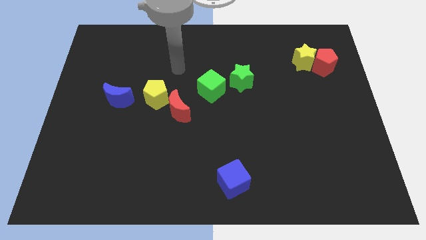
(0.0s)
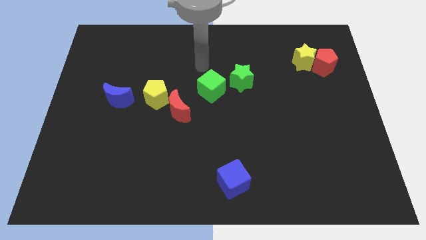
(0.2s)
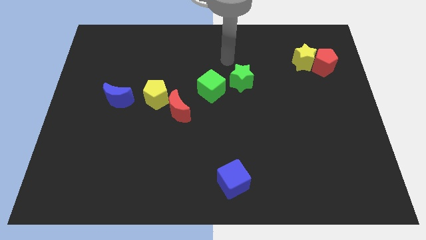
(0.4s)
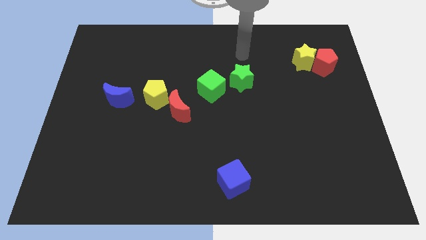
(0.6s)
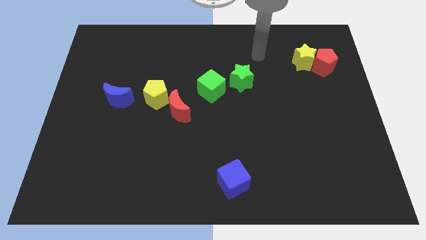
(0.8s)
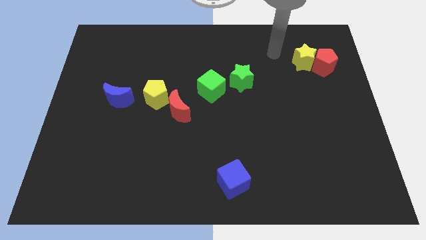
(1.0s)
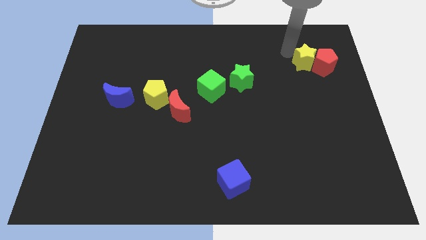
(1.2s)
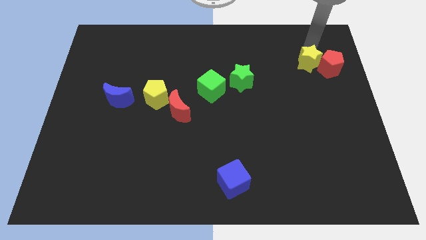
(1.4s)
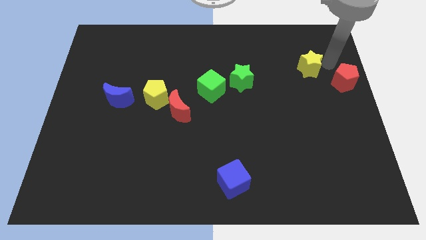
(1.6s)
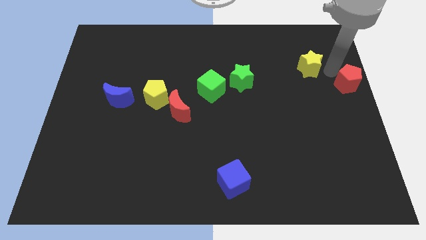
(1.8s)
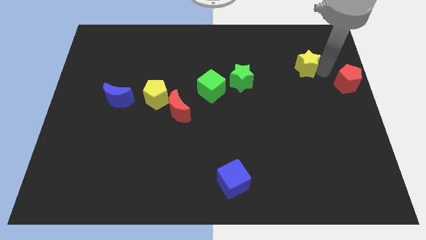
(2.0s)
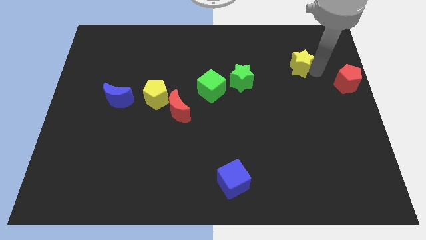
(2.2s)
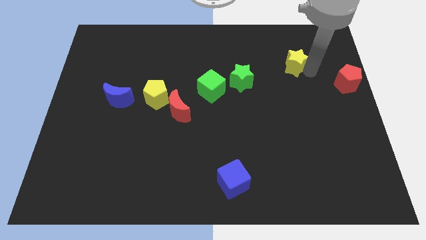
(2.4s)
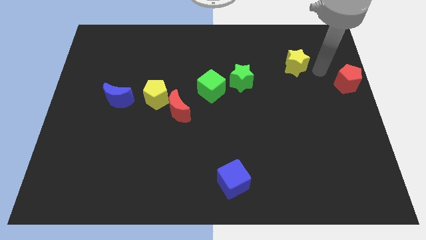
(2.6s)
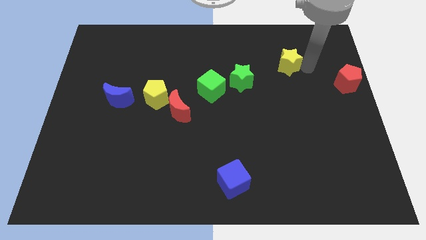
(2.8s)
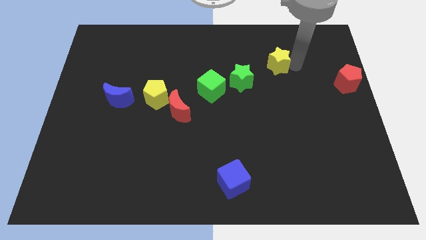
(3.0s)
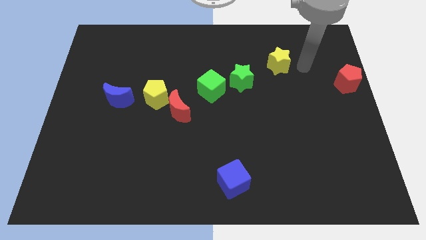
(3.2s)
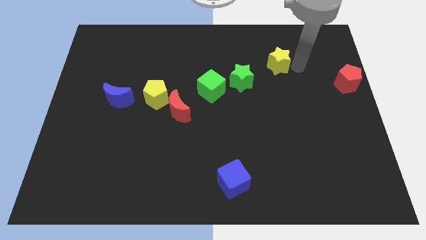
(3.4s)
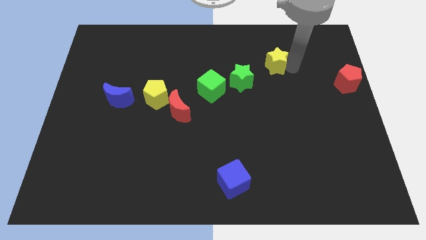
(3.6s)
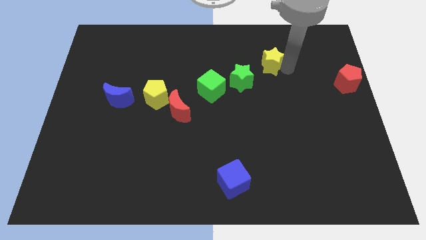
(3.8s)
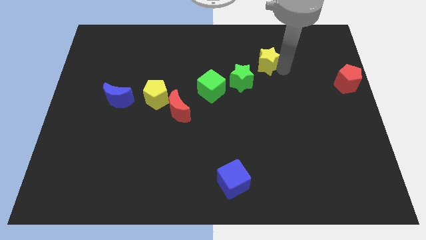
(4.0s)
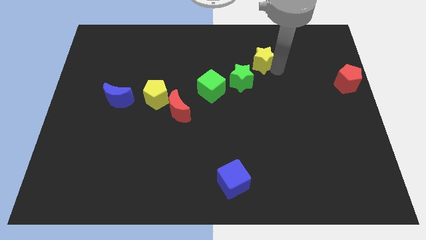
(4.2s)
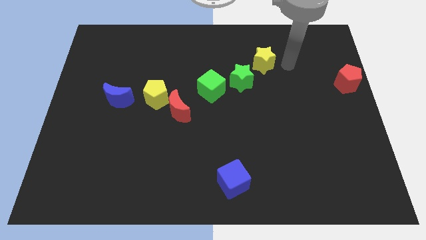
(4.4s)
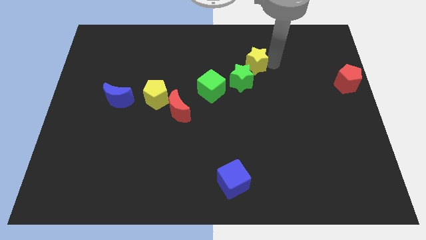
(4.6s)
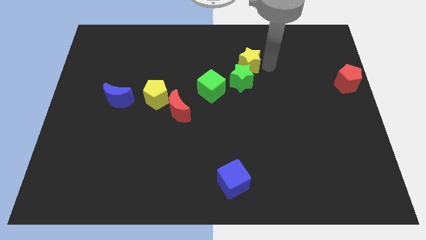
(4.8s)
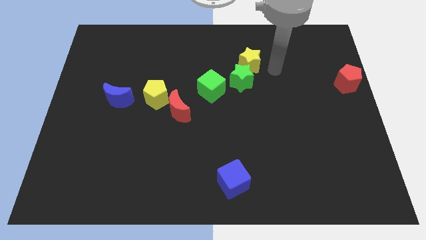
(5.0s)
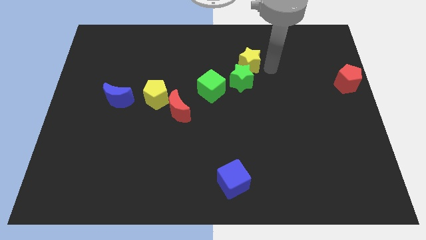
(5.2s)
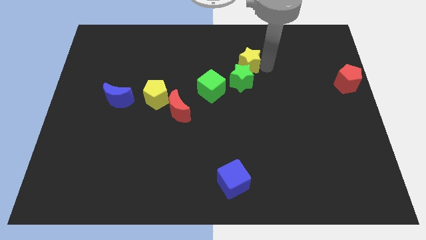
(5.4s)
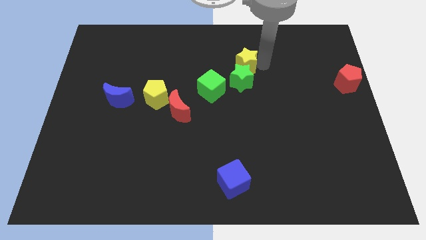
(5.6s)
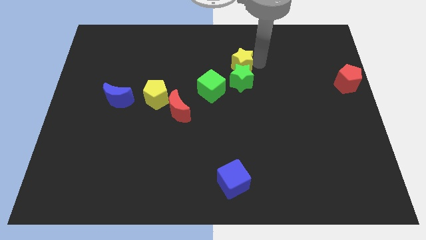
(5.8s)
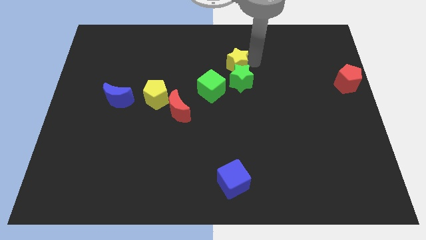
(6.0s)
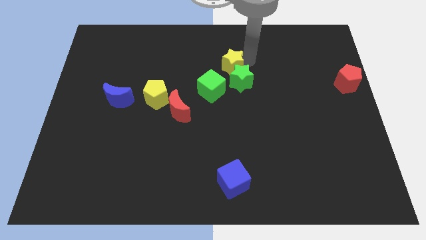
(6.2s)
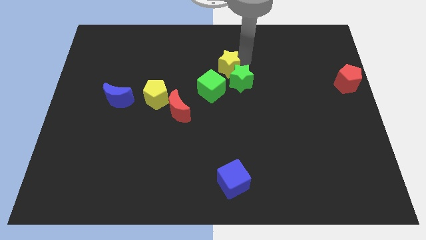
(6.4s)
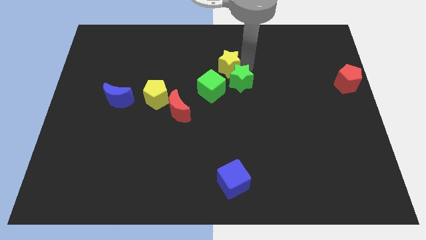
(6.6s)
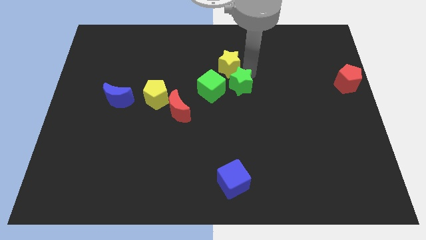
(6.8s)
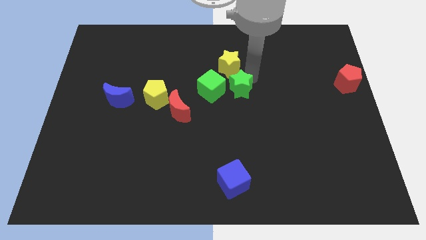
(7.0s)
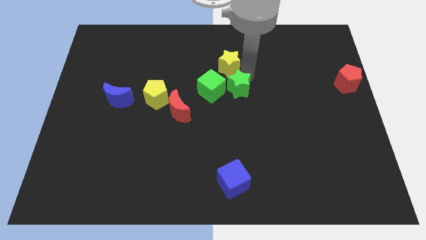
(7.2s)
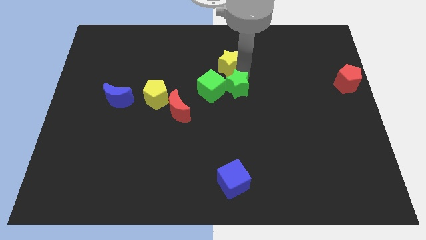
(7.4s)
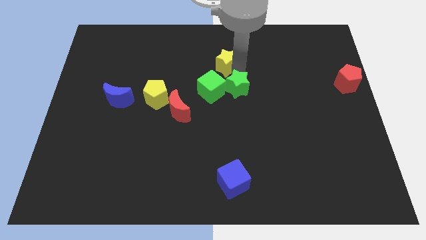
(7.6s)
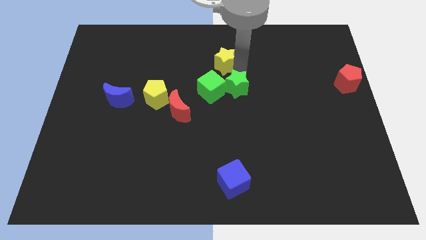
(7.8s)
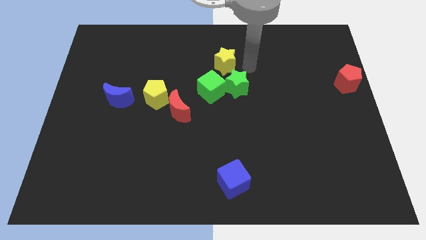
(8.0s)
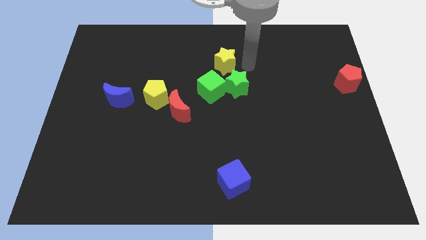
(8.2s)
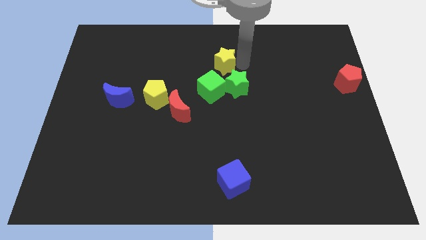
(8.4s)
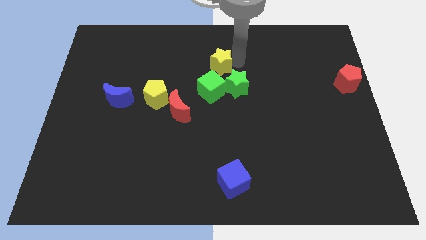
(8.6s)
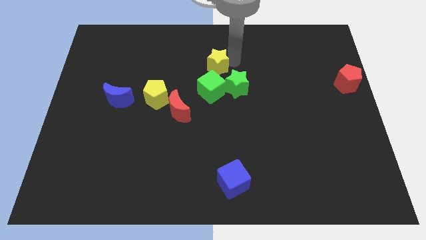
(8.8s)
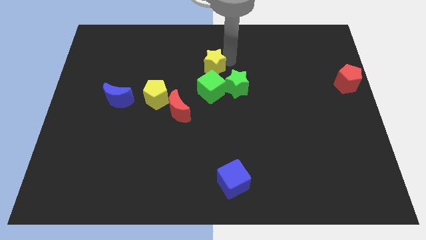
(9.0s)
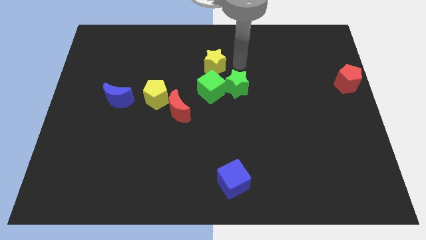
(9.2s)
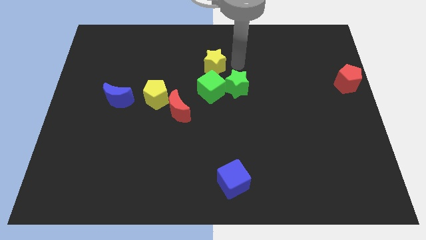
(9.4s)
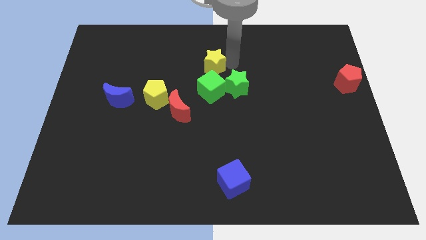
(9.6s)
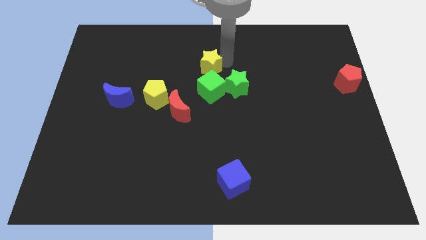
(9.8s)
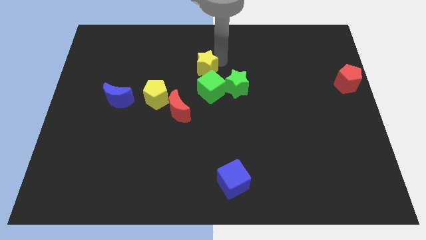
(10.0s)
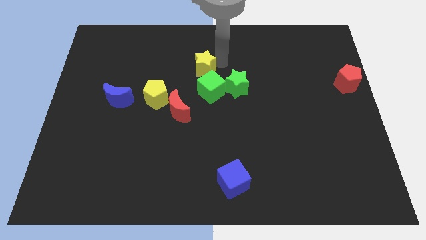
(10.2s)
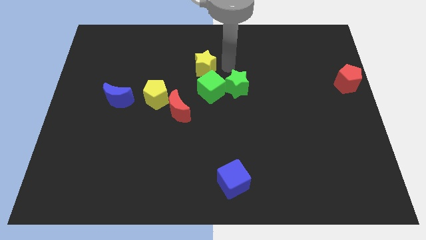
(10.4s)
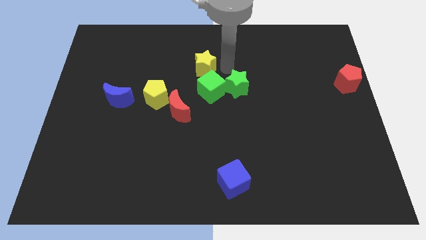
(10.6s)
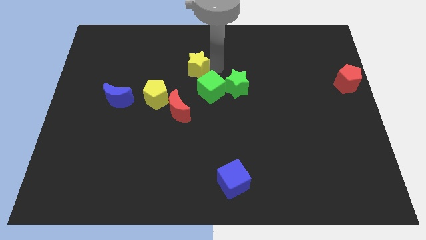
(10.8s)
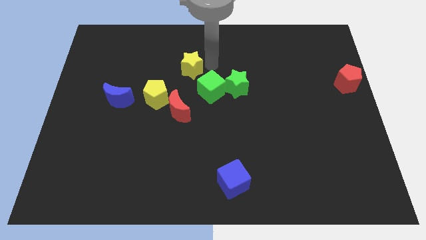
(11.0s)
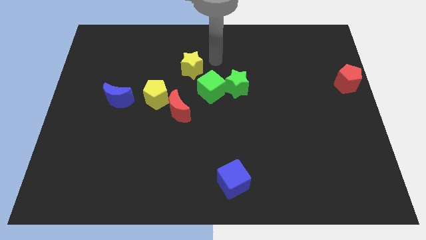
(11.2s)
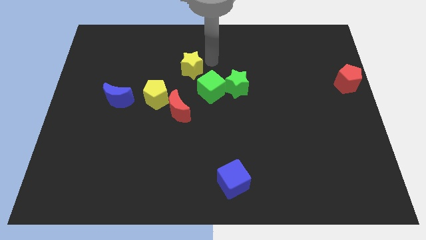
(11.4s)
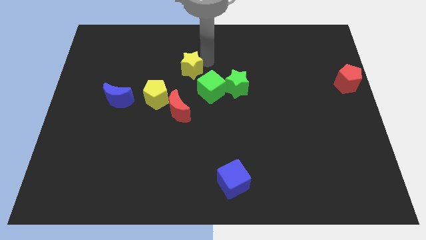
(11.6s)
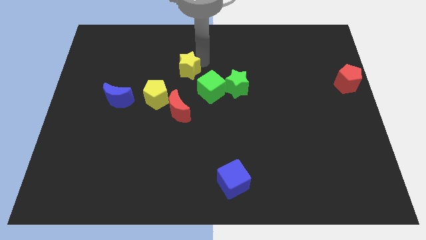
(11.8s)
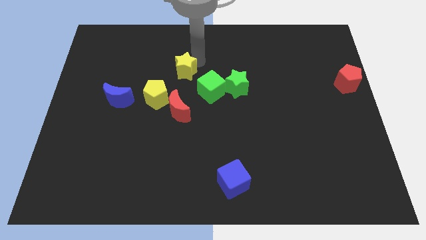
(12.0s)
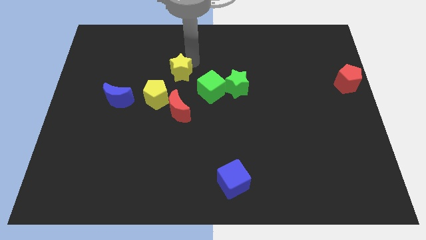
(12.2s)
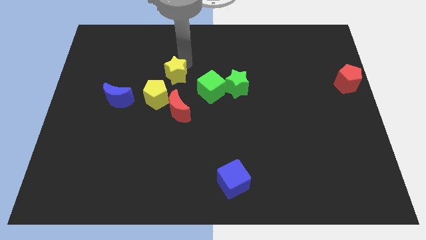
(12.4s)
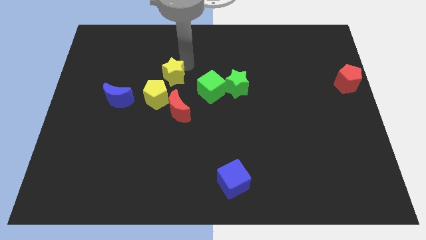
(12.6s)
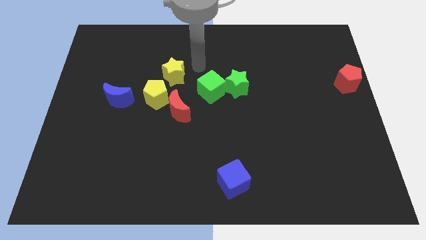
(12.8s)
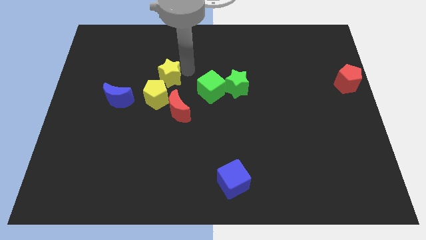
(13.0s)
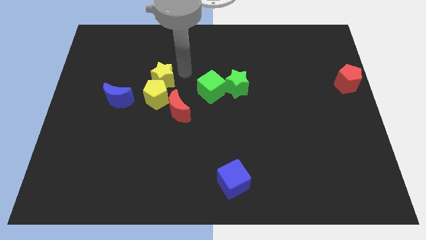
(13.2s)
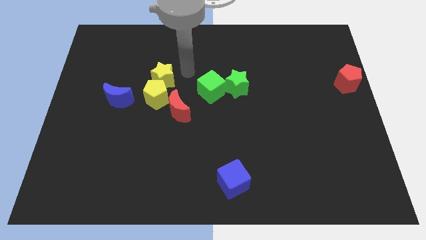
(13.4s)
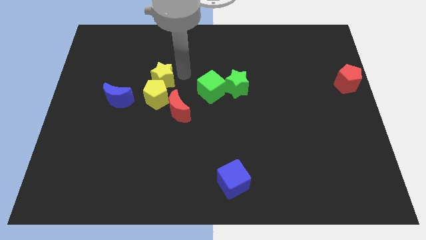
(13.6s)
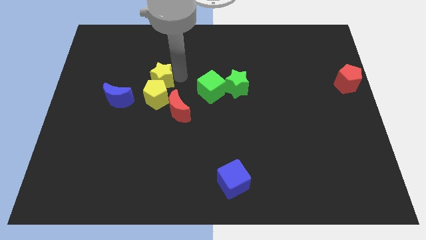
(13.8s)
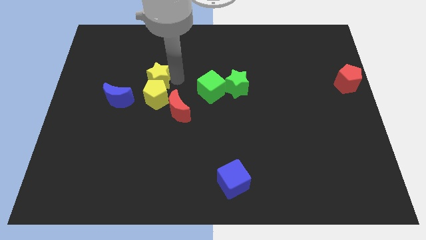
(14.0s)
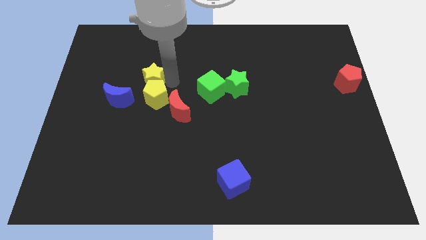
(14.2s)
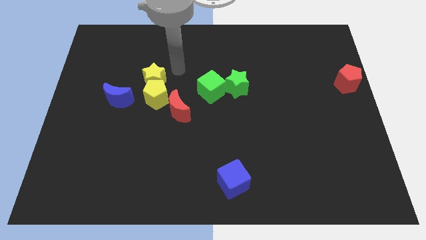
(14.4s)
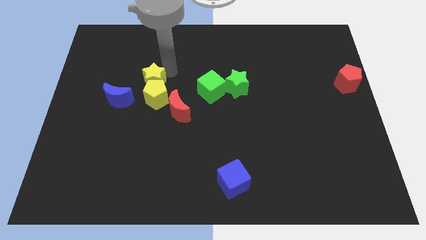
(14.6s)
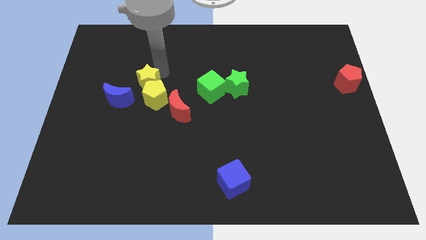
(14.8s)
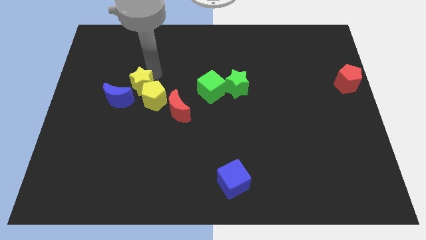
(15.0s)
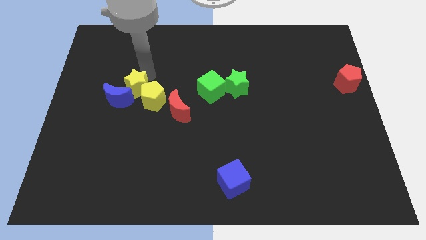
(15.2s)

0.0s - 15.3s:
slide the yellow star close to the blue moon
